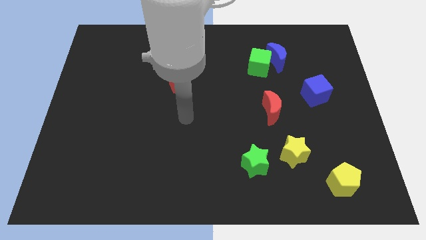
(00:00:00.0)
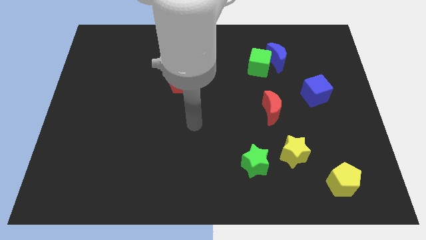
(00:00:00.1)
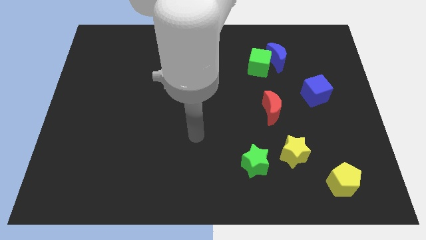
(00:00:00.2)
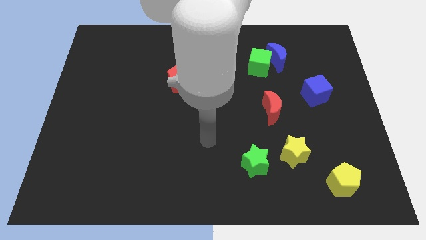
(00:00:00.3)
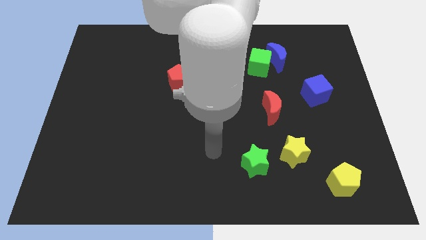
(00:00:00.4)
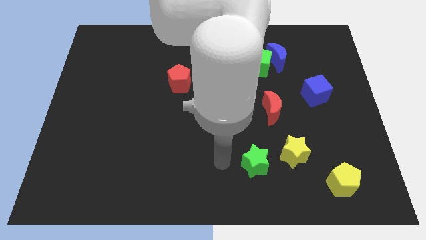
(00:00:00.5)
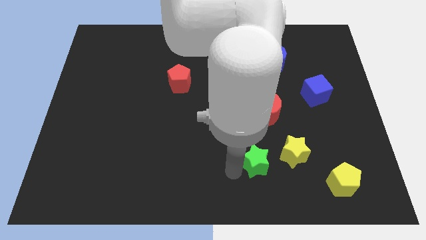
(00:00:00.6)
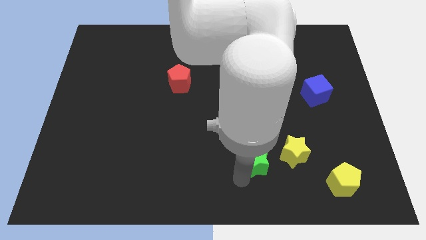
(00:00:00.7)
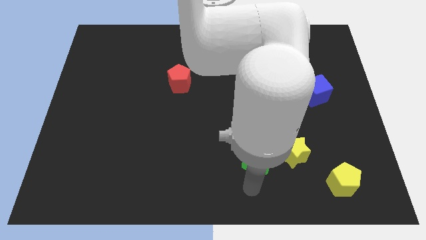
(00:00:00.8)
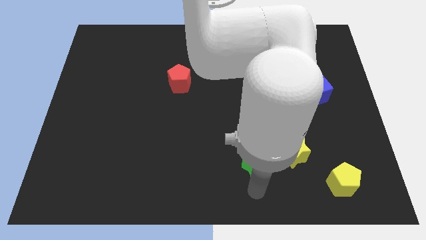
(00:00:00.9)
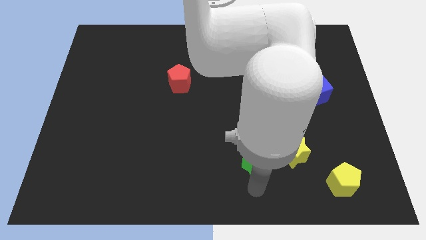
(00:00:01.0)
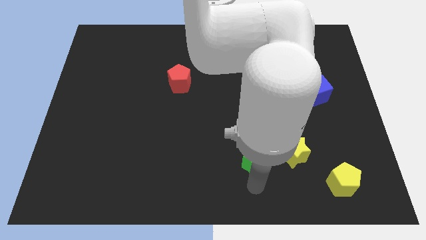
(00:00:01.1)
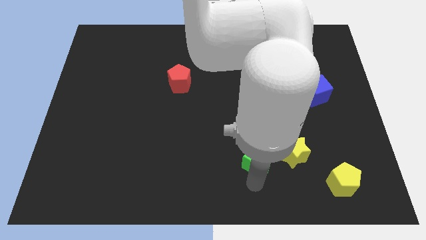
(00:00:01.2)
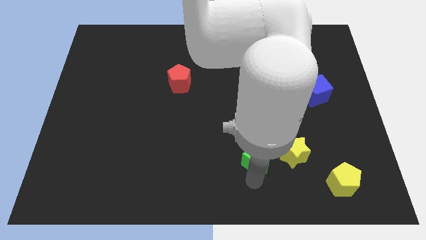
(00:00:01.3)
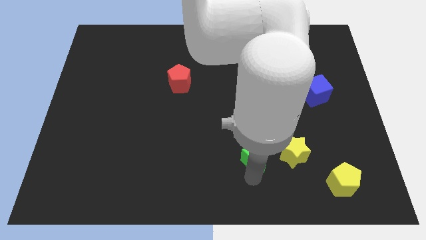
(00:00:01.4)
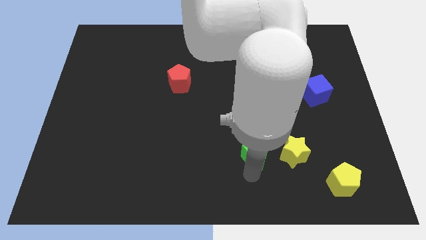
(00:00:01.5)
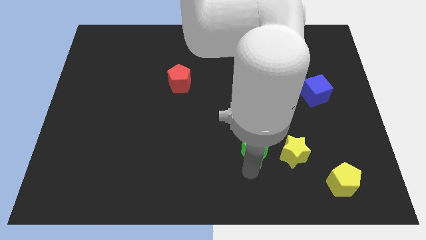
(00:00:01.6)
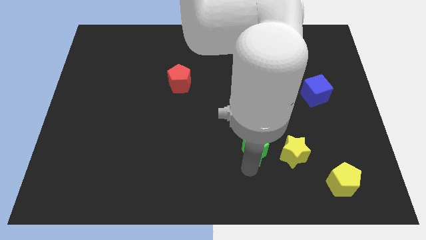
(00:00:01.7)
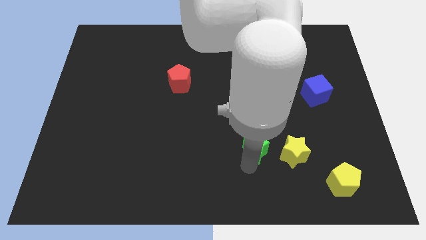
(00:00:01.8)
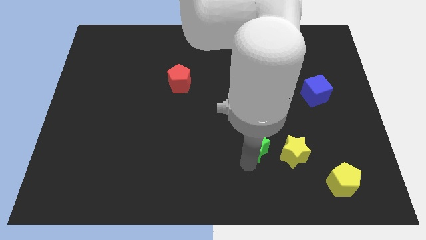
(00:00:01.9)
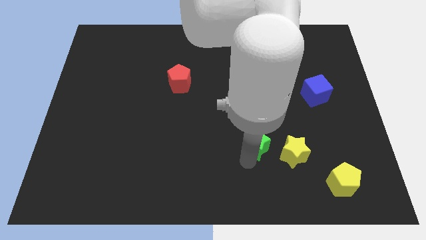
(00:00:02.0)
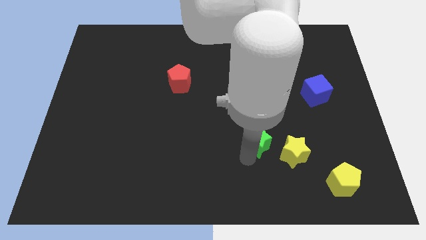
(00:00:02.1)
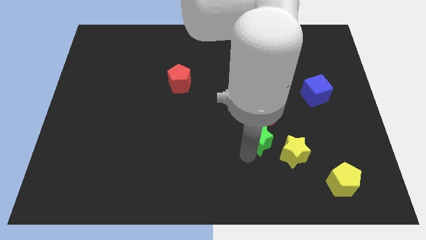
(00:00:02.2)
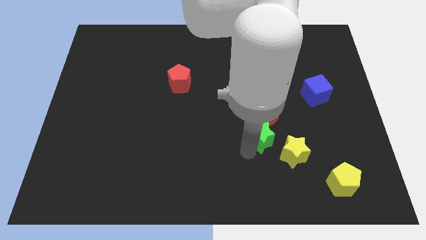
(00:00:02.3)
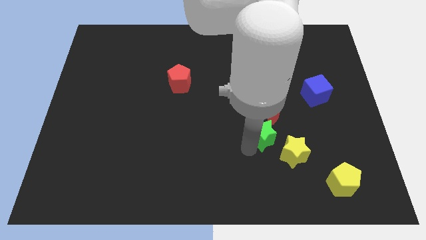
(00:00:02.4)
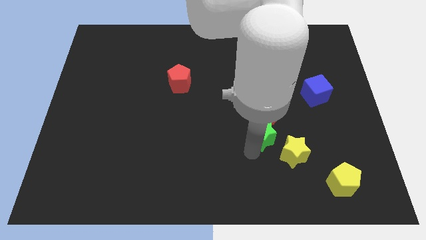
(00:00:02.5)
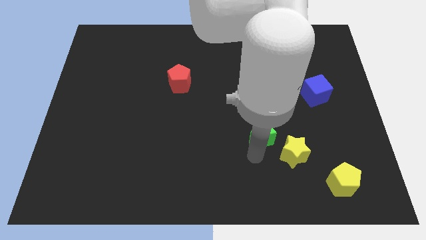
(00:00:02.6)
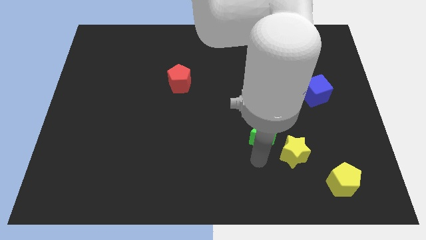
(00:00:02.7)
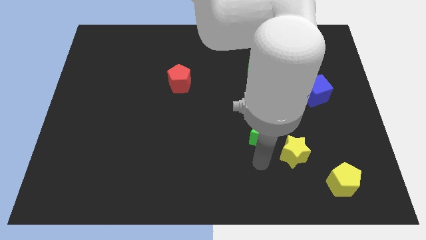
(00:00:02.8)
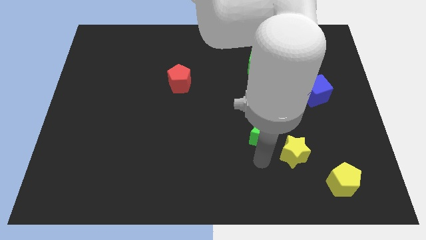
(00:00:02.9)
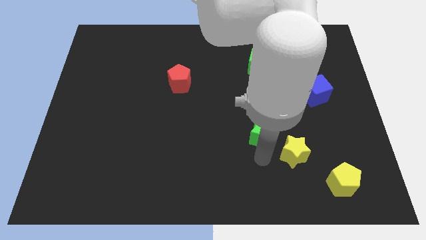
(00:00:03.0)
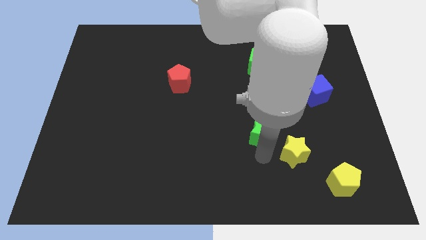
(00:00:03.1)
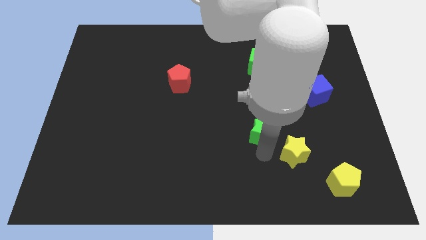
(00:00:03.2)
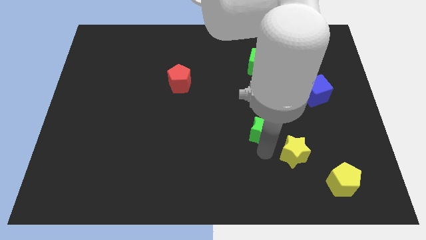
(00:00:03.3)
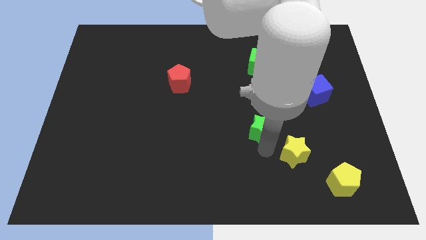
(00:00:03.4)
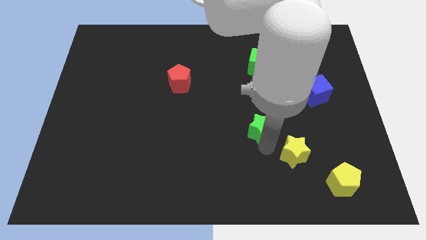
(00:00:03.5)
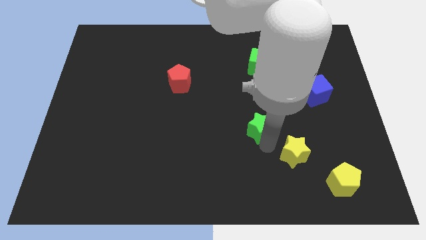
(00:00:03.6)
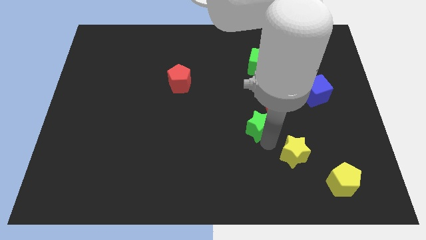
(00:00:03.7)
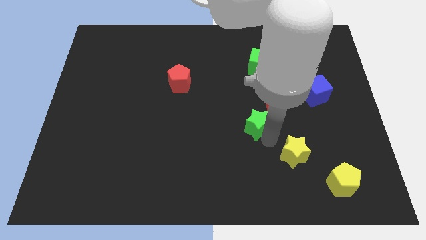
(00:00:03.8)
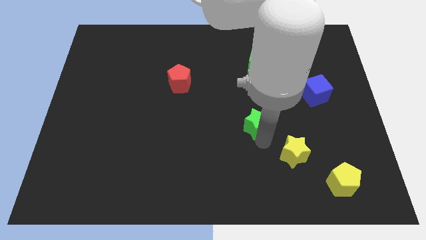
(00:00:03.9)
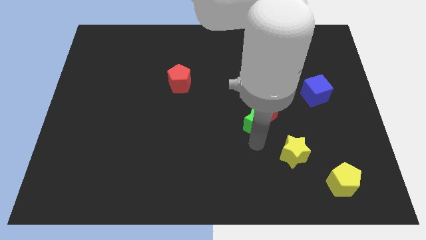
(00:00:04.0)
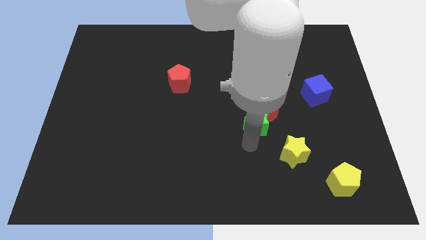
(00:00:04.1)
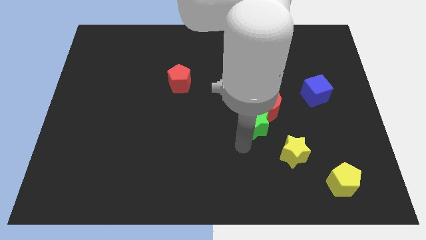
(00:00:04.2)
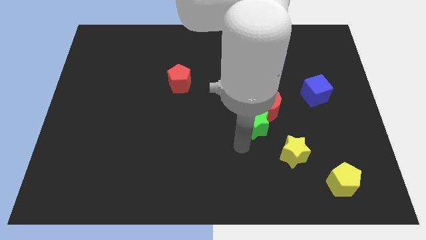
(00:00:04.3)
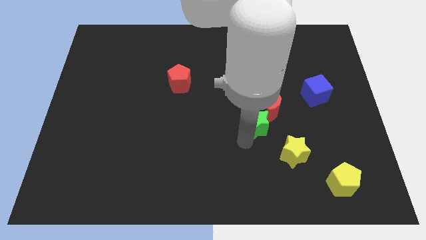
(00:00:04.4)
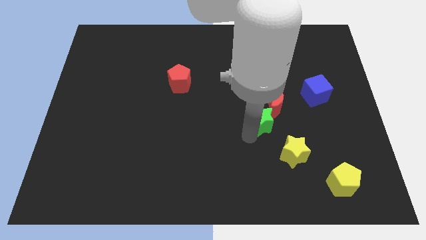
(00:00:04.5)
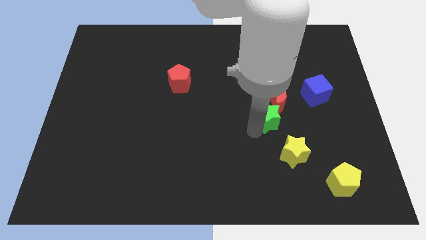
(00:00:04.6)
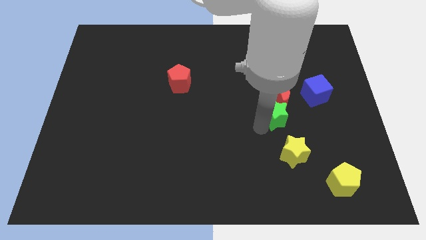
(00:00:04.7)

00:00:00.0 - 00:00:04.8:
push the green star to the red moon

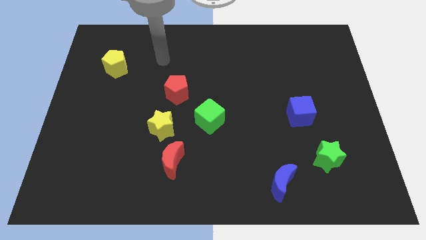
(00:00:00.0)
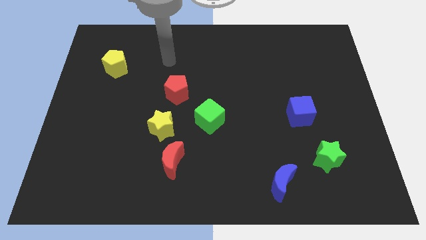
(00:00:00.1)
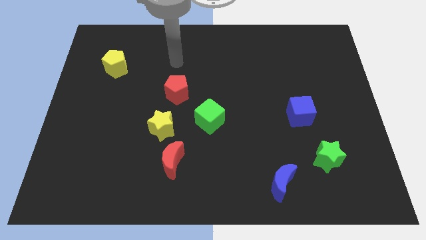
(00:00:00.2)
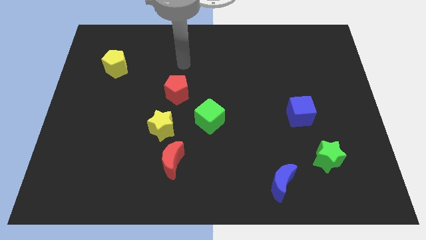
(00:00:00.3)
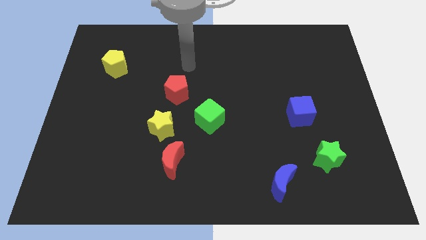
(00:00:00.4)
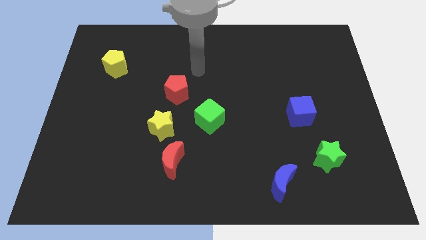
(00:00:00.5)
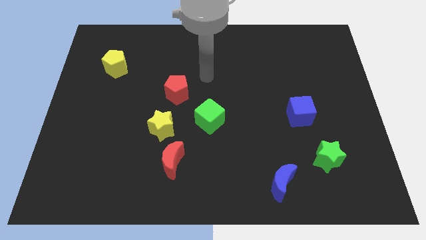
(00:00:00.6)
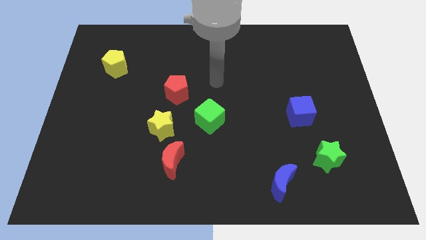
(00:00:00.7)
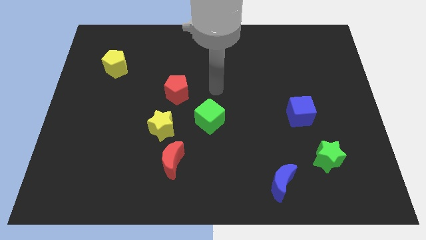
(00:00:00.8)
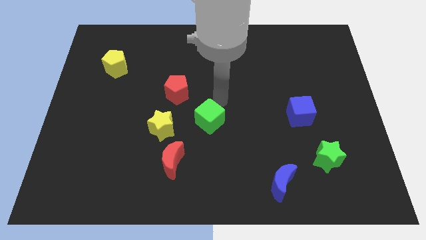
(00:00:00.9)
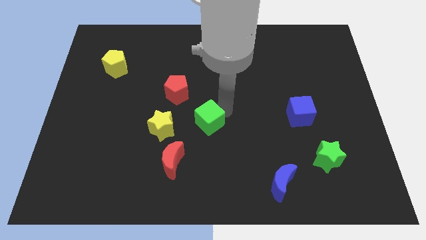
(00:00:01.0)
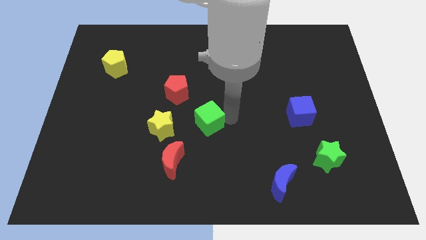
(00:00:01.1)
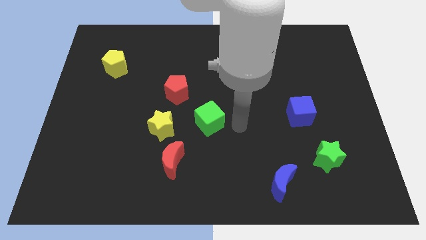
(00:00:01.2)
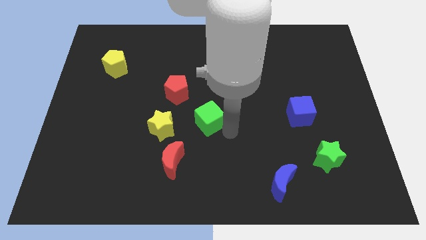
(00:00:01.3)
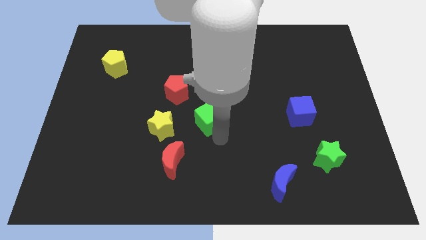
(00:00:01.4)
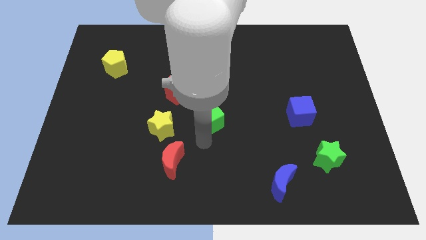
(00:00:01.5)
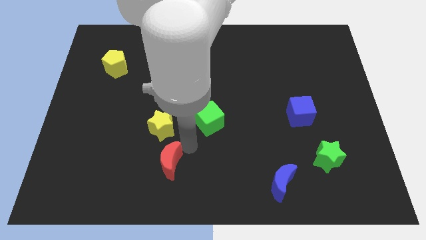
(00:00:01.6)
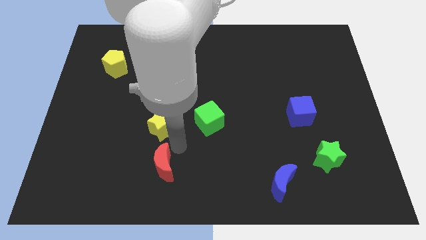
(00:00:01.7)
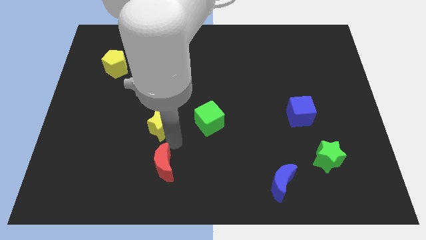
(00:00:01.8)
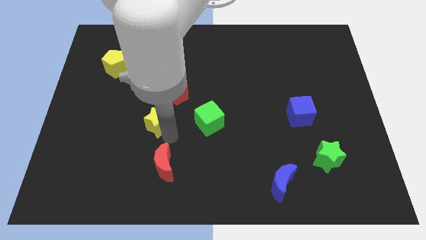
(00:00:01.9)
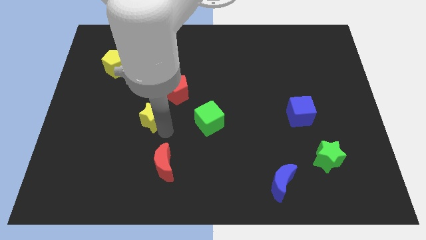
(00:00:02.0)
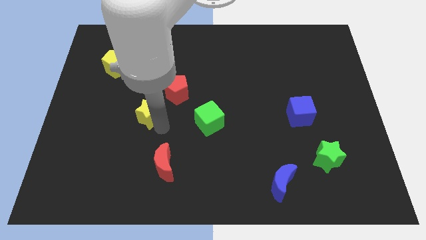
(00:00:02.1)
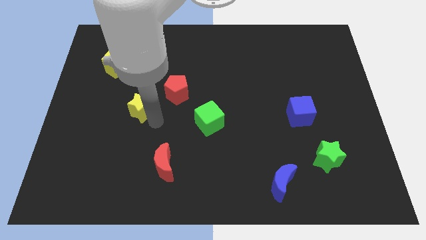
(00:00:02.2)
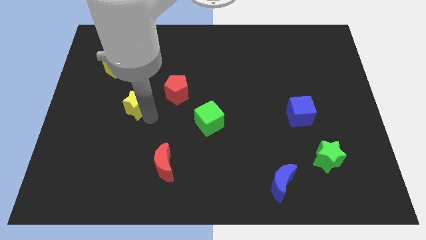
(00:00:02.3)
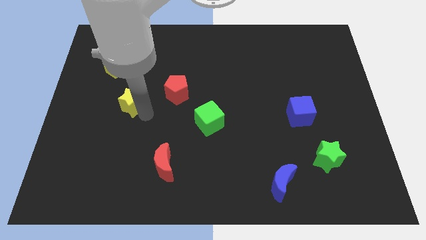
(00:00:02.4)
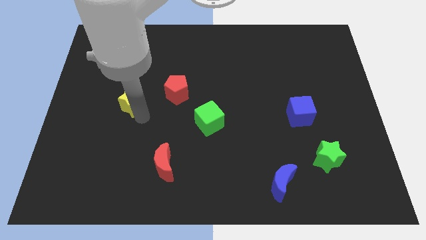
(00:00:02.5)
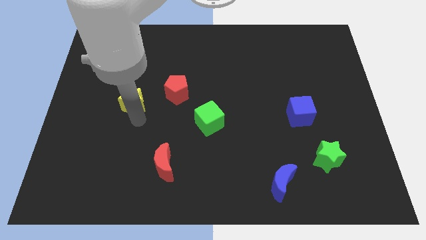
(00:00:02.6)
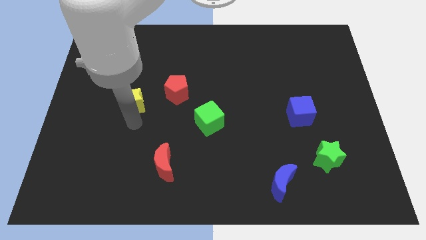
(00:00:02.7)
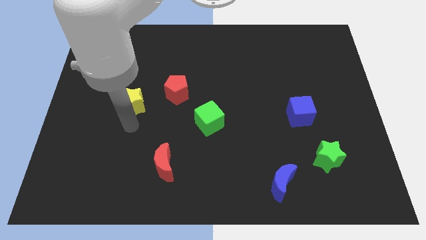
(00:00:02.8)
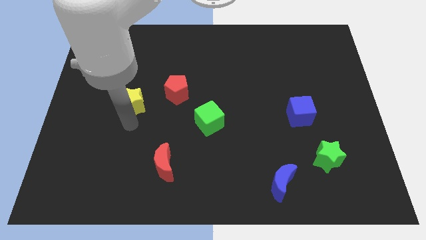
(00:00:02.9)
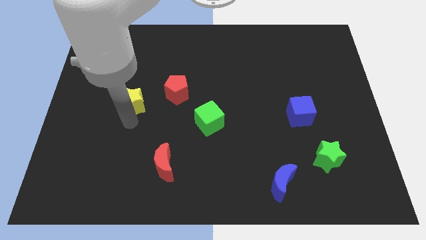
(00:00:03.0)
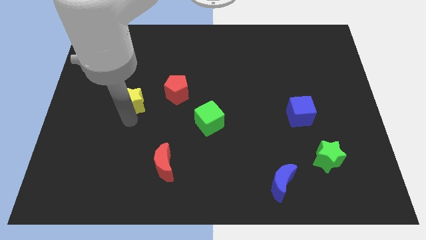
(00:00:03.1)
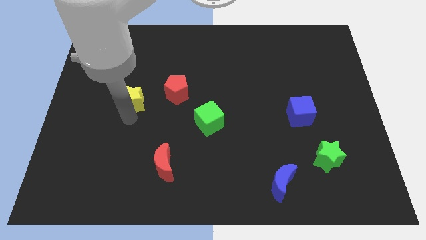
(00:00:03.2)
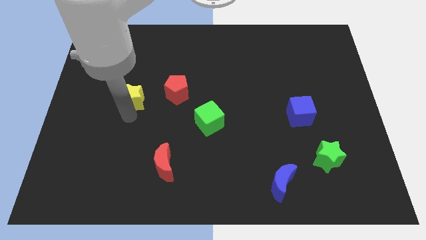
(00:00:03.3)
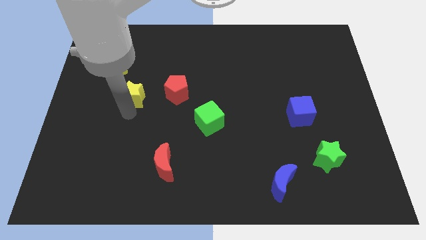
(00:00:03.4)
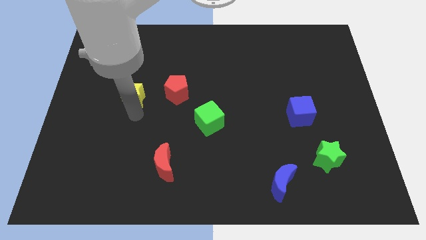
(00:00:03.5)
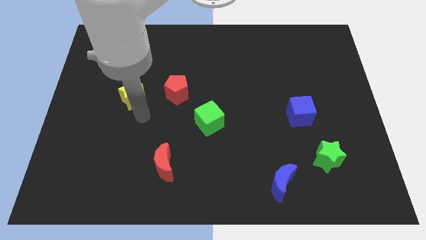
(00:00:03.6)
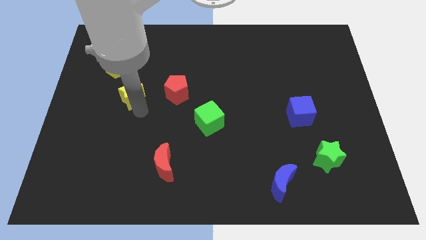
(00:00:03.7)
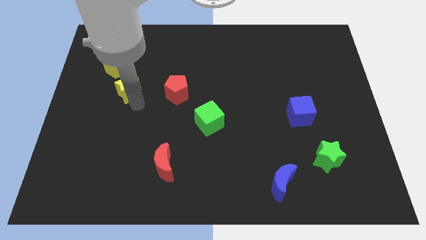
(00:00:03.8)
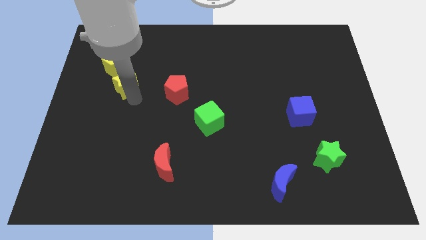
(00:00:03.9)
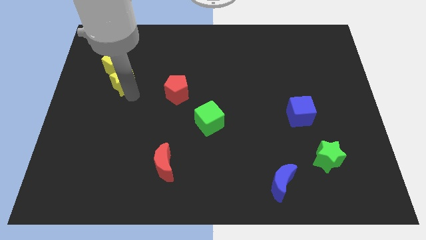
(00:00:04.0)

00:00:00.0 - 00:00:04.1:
slide the yellow star next to the yellow pentagon
